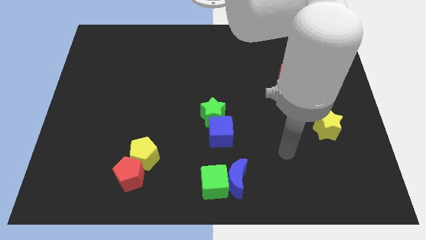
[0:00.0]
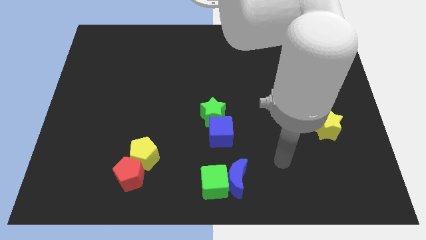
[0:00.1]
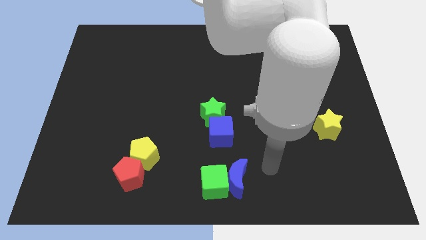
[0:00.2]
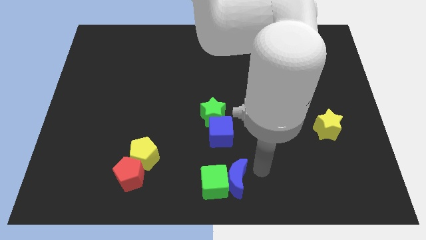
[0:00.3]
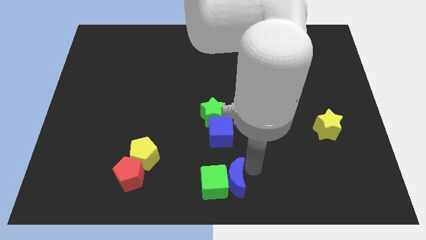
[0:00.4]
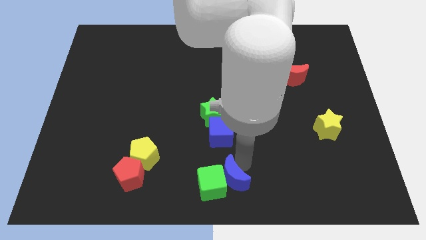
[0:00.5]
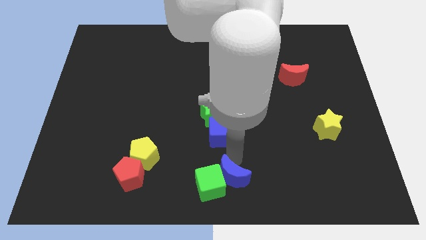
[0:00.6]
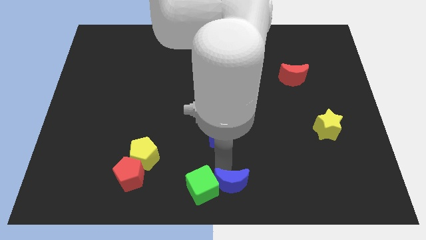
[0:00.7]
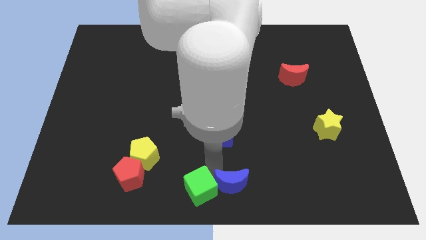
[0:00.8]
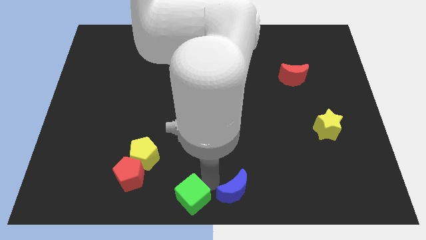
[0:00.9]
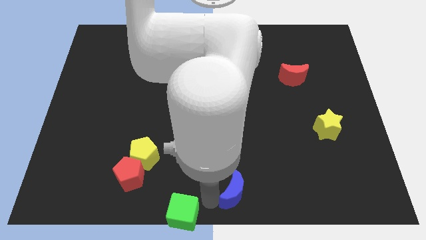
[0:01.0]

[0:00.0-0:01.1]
pull the blue moon apart from the green cube

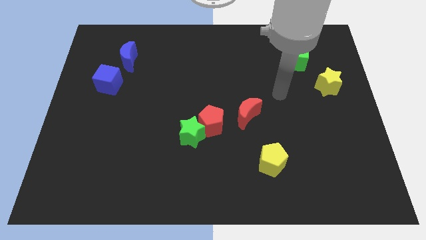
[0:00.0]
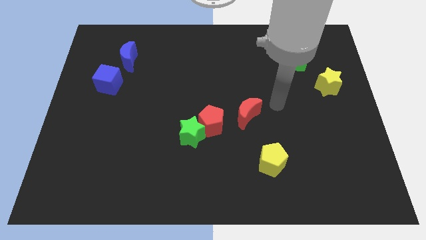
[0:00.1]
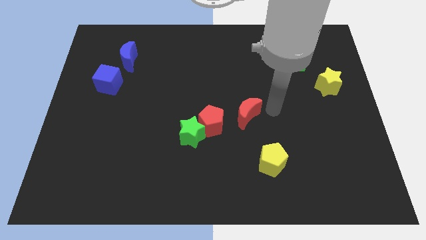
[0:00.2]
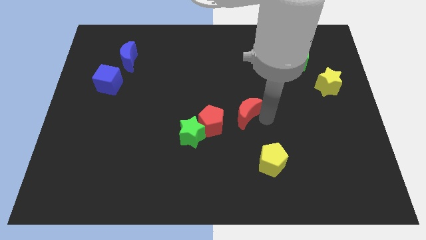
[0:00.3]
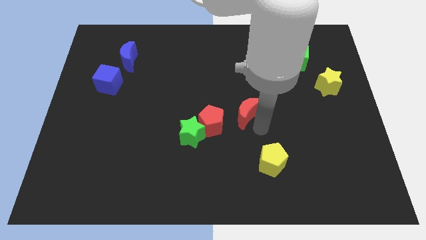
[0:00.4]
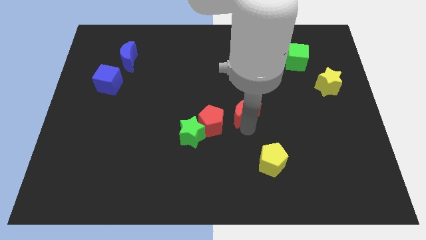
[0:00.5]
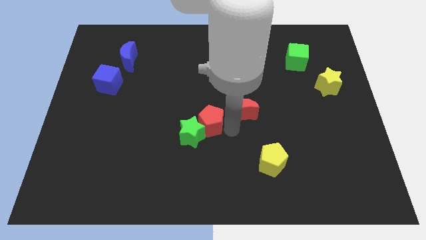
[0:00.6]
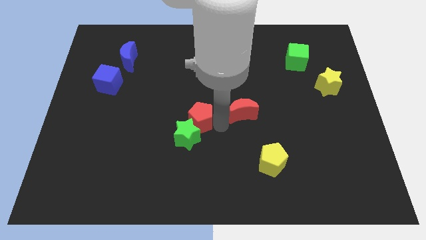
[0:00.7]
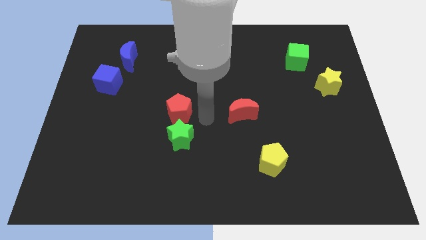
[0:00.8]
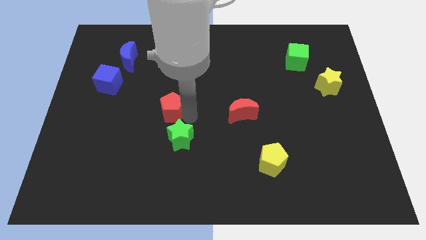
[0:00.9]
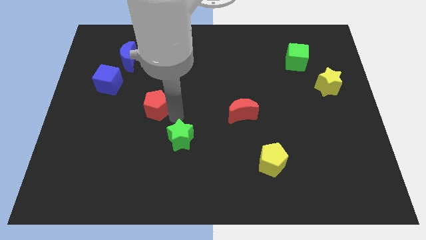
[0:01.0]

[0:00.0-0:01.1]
separate the green star from the red pentagon

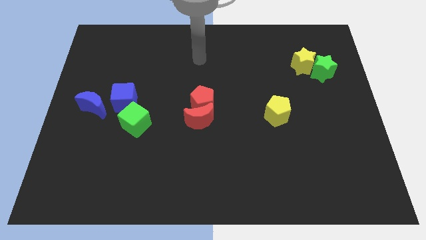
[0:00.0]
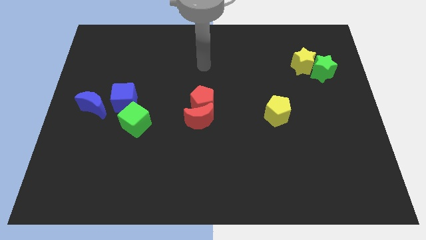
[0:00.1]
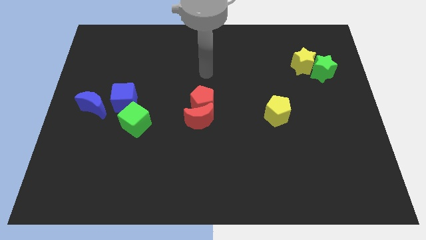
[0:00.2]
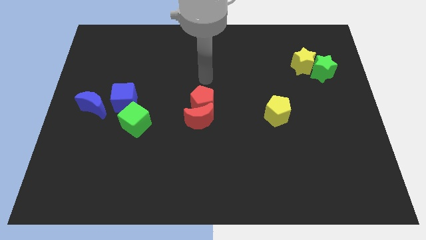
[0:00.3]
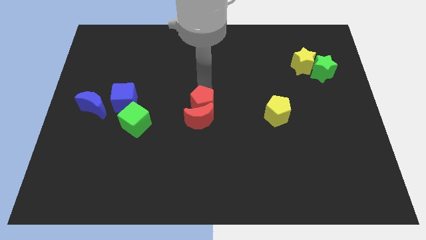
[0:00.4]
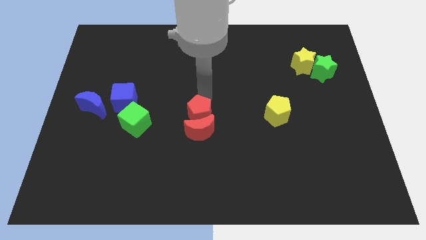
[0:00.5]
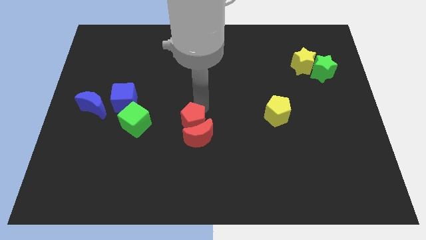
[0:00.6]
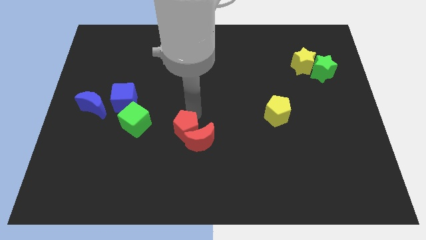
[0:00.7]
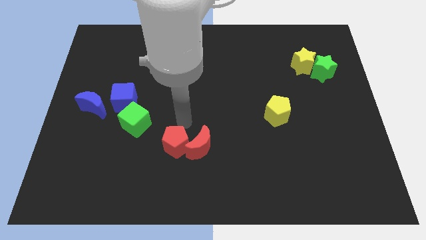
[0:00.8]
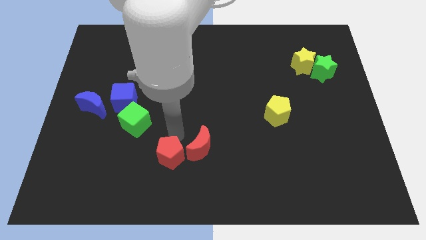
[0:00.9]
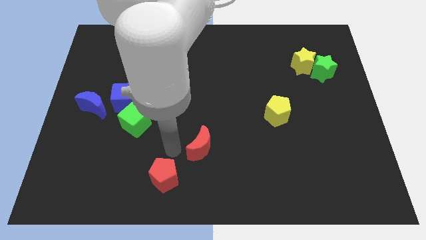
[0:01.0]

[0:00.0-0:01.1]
move the red moon away from the red pentagon

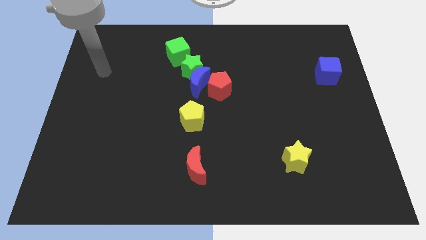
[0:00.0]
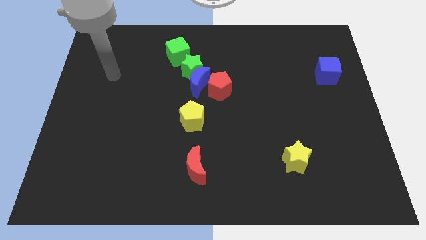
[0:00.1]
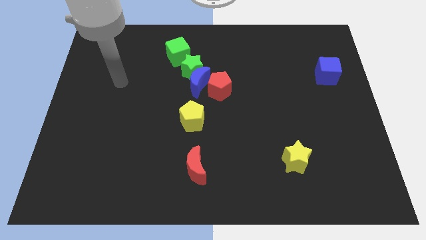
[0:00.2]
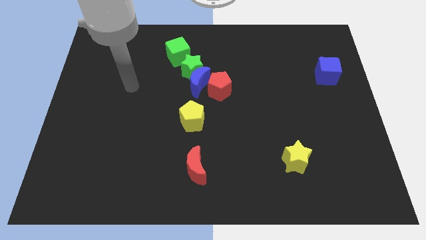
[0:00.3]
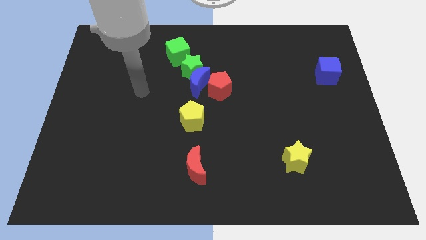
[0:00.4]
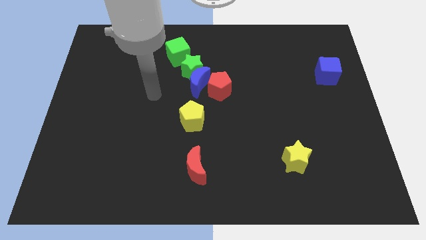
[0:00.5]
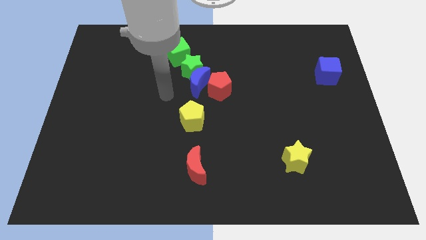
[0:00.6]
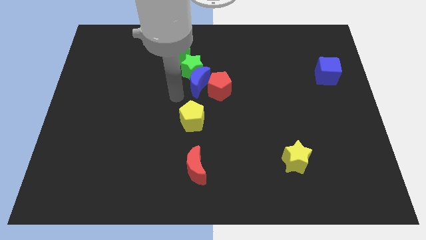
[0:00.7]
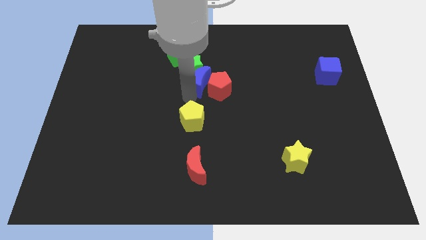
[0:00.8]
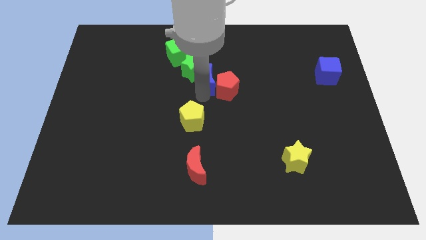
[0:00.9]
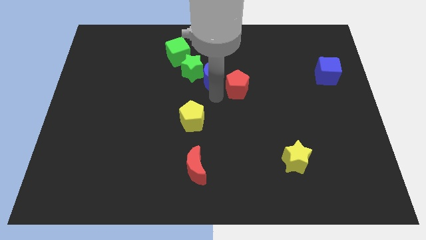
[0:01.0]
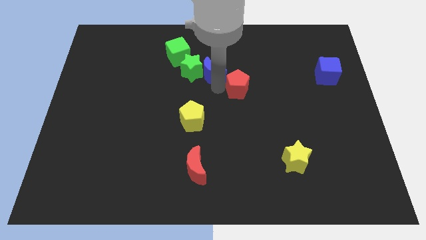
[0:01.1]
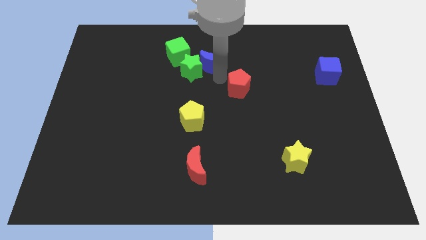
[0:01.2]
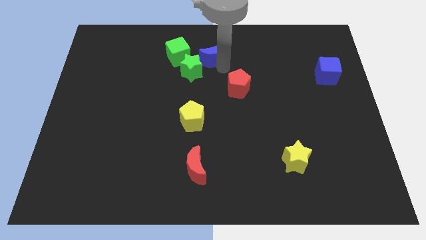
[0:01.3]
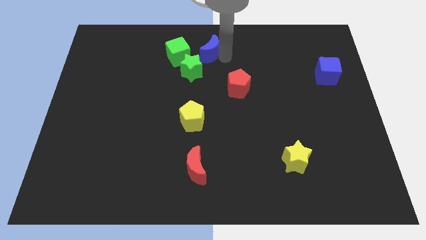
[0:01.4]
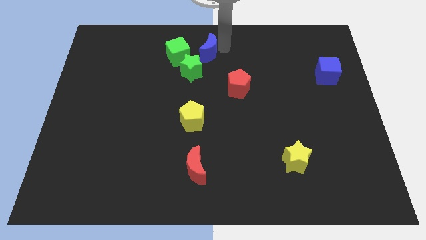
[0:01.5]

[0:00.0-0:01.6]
separate the blue moon from the green star and red pentagon

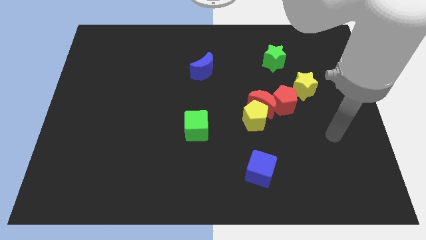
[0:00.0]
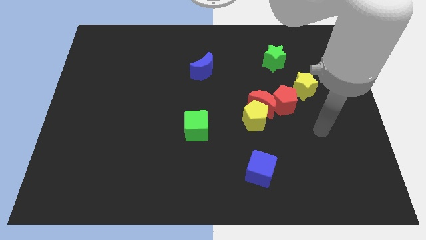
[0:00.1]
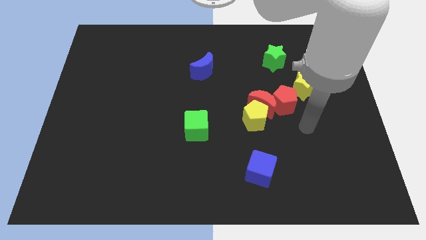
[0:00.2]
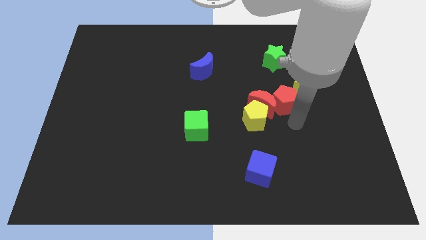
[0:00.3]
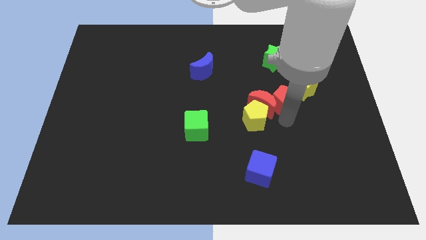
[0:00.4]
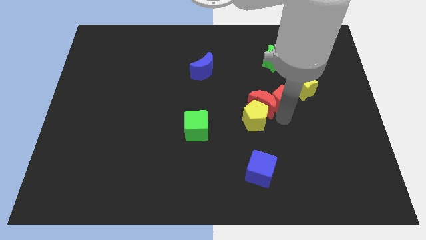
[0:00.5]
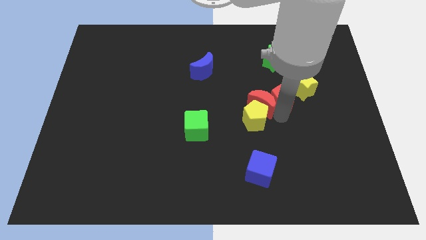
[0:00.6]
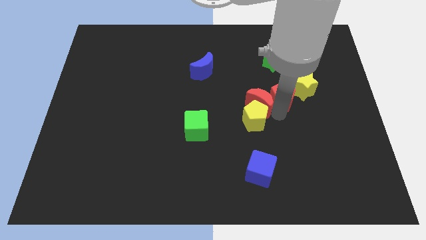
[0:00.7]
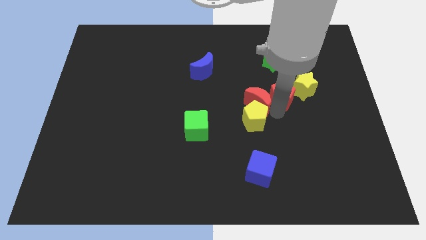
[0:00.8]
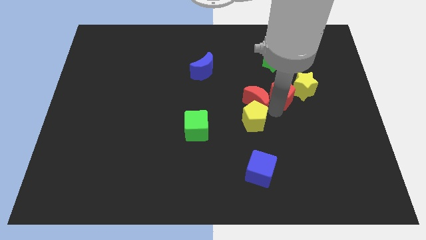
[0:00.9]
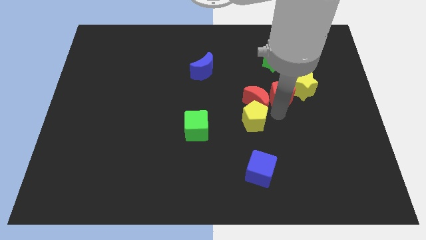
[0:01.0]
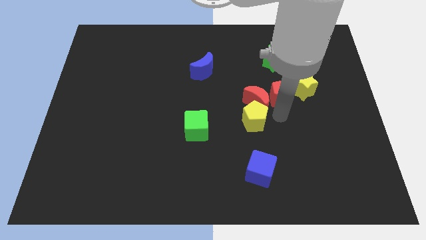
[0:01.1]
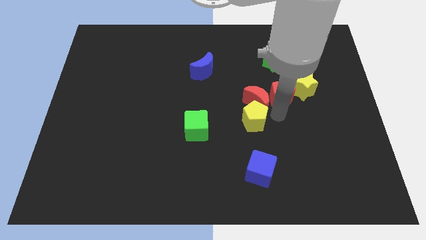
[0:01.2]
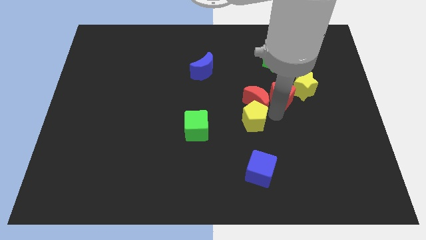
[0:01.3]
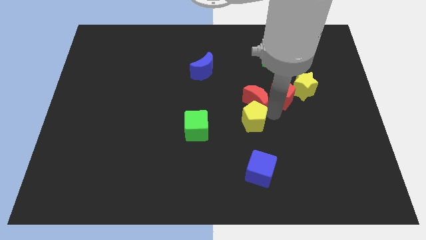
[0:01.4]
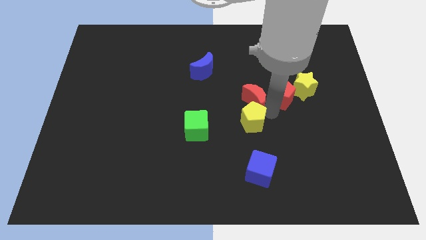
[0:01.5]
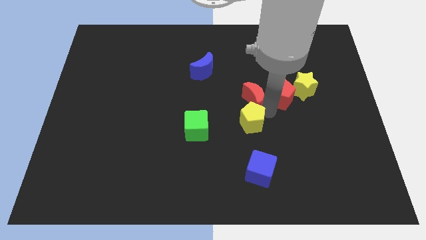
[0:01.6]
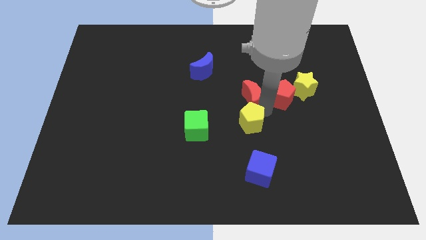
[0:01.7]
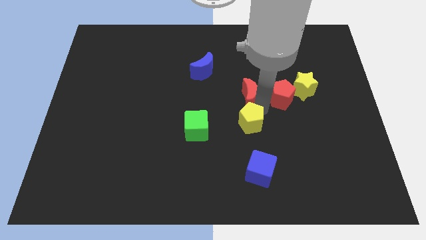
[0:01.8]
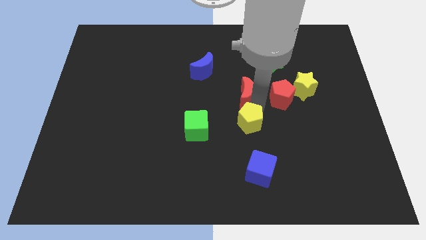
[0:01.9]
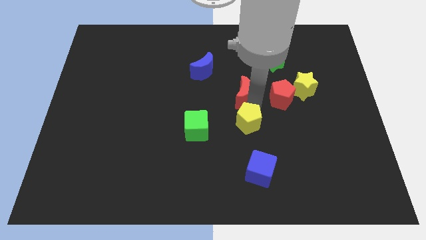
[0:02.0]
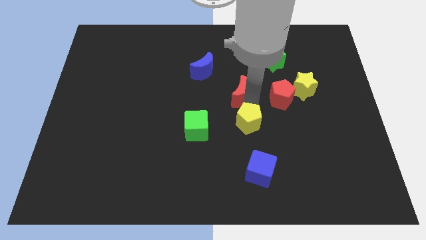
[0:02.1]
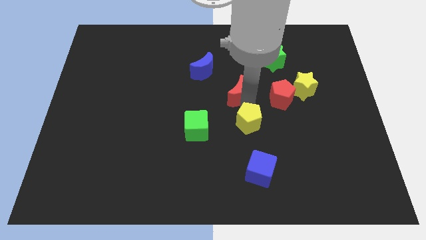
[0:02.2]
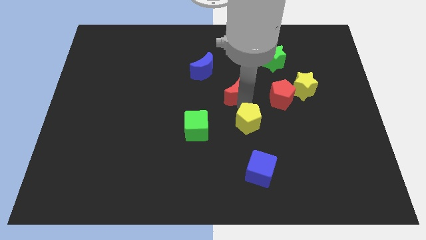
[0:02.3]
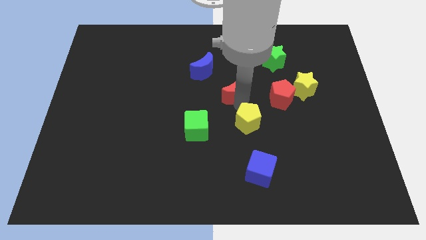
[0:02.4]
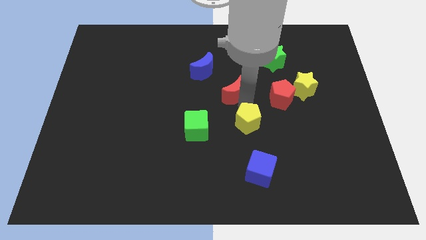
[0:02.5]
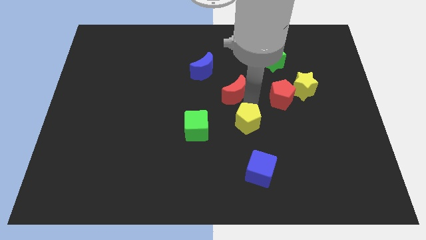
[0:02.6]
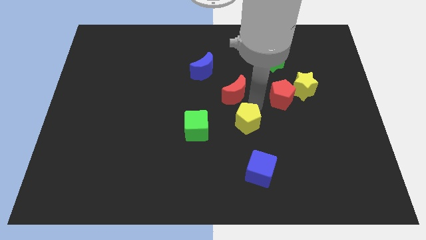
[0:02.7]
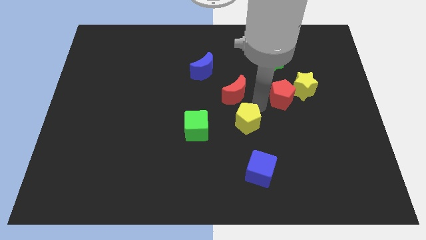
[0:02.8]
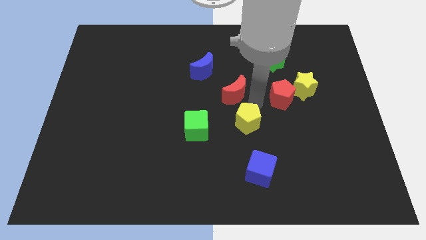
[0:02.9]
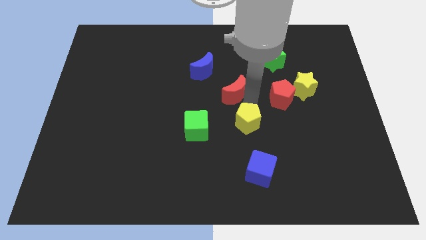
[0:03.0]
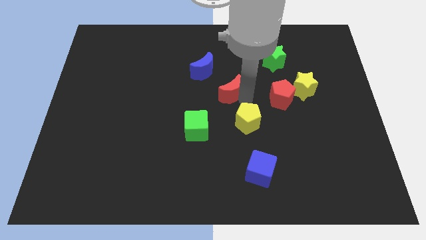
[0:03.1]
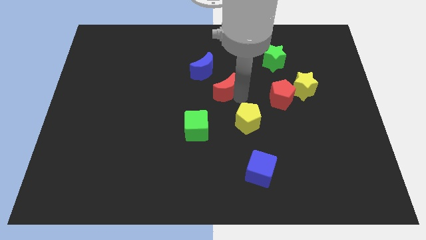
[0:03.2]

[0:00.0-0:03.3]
separate the red moon from the yellow pentagon and red pentagon

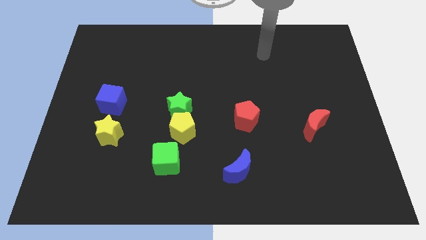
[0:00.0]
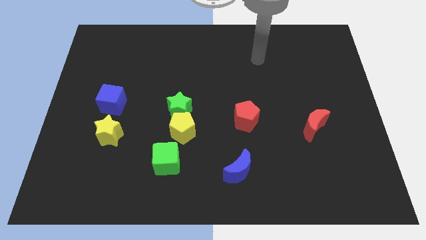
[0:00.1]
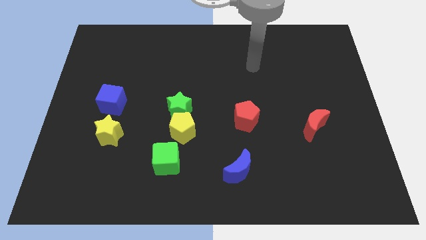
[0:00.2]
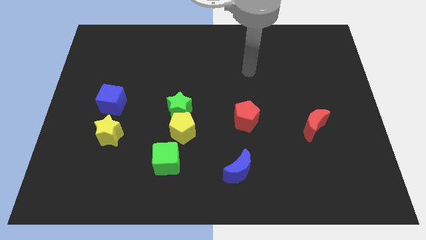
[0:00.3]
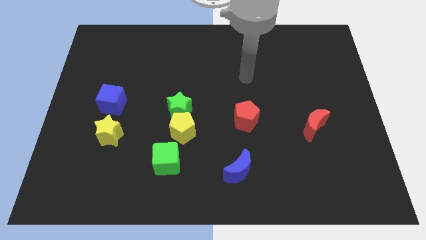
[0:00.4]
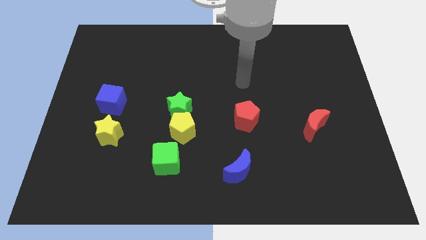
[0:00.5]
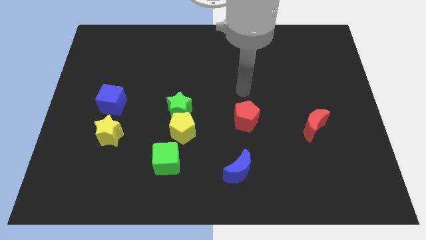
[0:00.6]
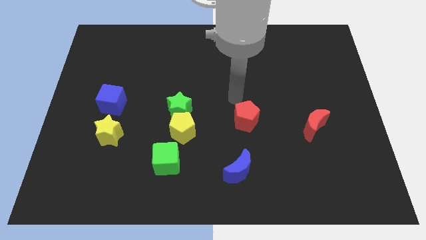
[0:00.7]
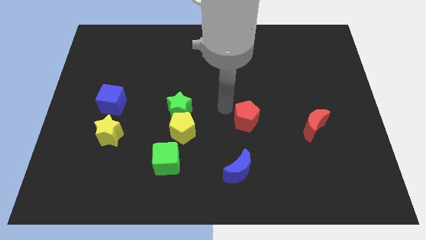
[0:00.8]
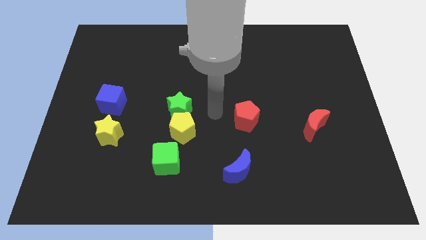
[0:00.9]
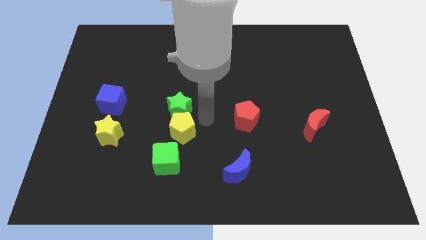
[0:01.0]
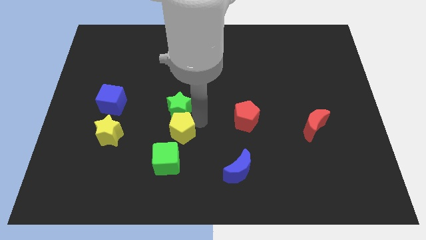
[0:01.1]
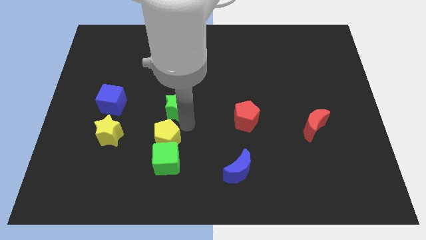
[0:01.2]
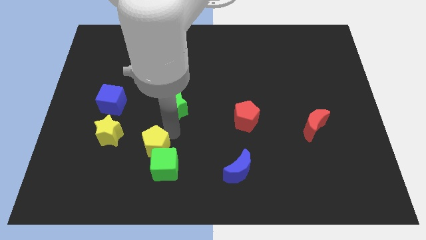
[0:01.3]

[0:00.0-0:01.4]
move the green star away from the yellow pentagon
